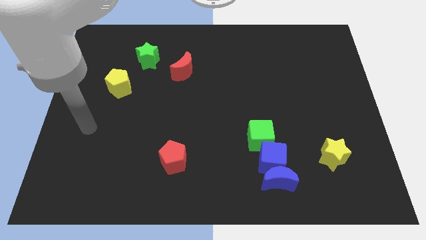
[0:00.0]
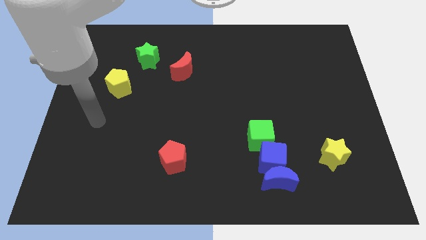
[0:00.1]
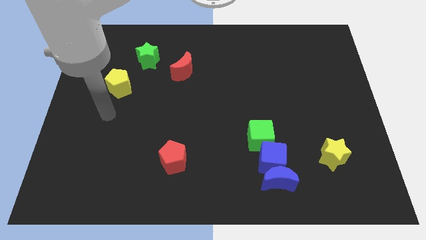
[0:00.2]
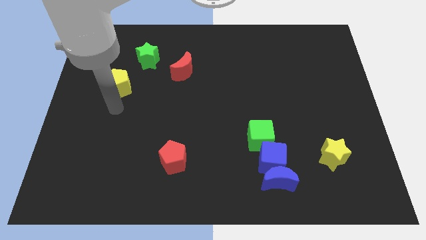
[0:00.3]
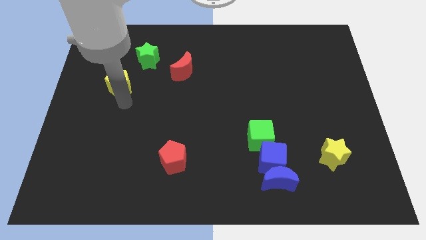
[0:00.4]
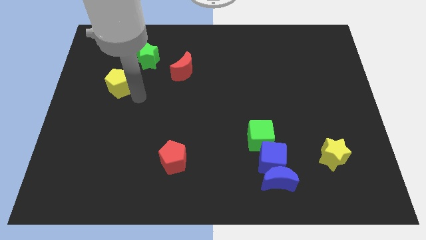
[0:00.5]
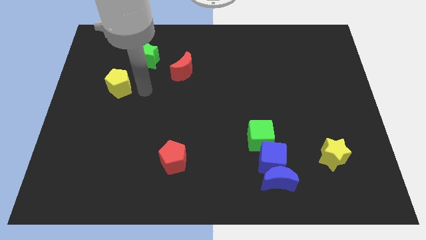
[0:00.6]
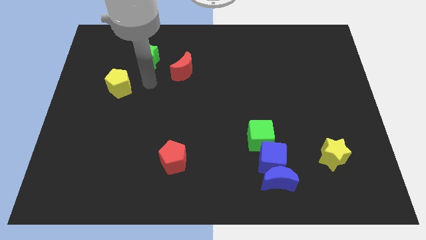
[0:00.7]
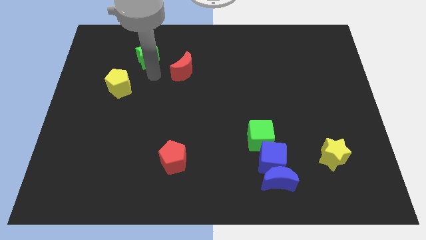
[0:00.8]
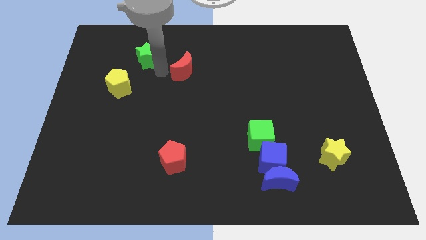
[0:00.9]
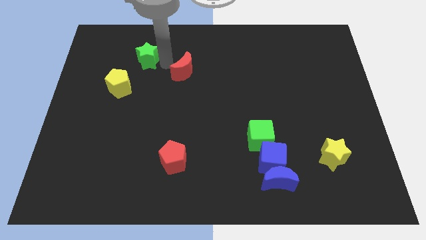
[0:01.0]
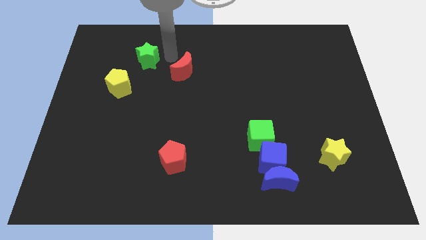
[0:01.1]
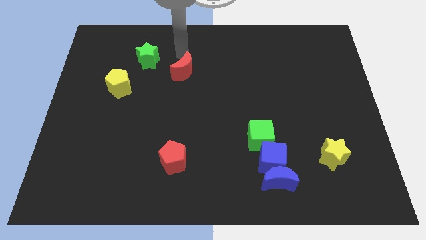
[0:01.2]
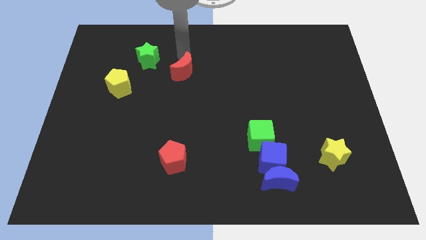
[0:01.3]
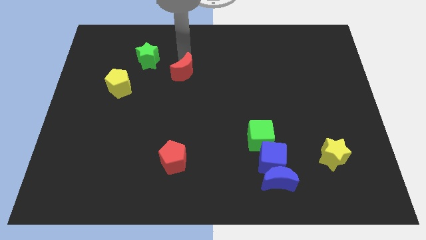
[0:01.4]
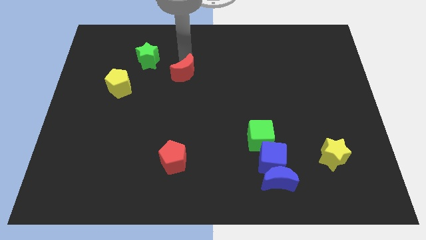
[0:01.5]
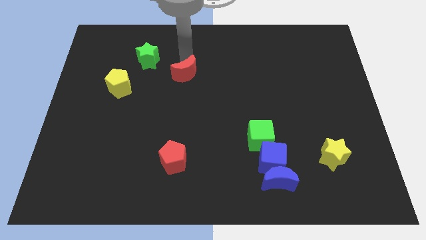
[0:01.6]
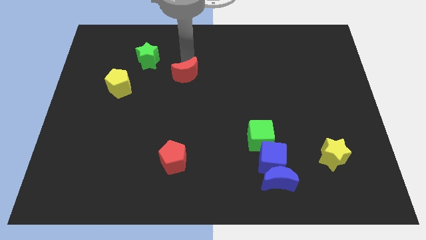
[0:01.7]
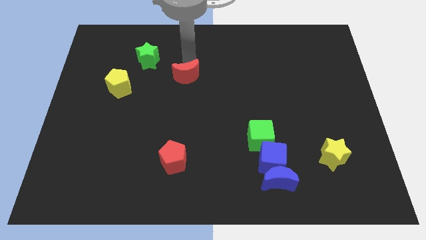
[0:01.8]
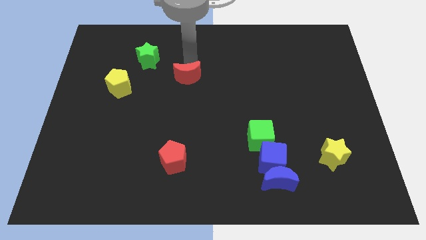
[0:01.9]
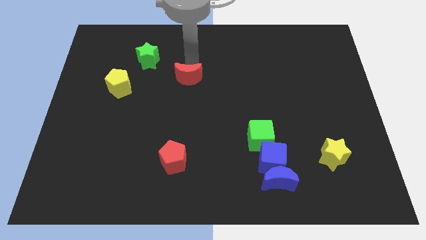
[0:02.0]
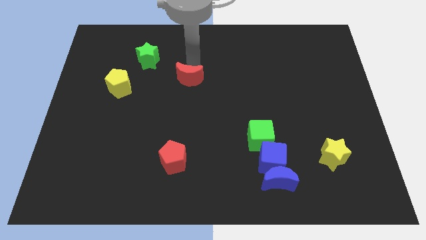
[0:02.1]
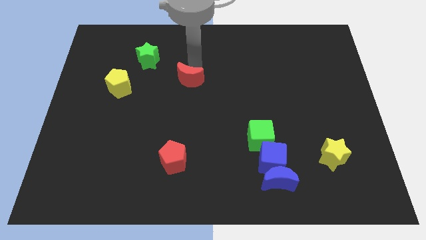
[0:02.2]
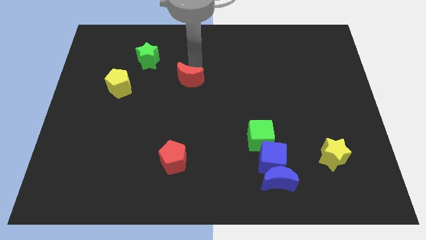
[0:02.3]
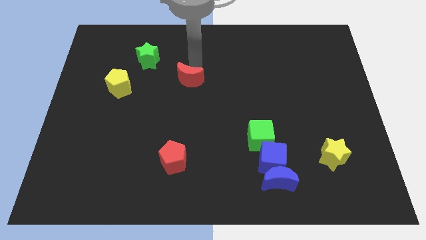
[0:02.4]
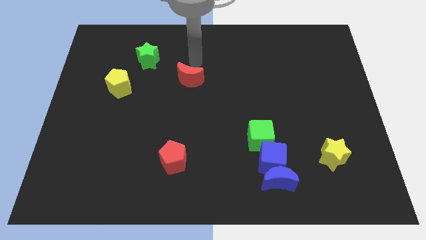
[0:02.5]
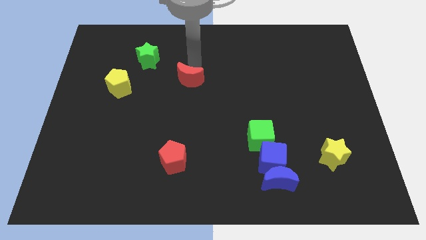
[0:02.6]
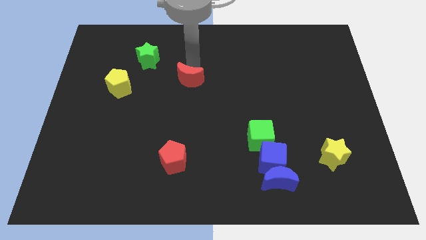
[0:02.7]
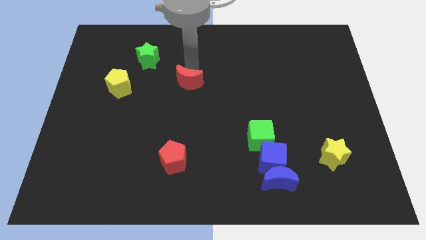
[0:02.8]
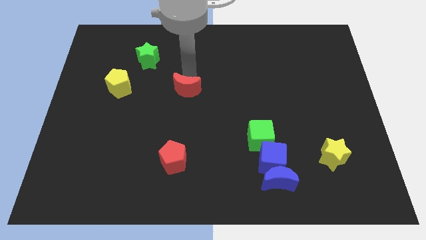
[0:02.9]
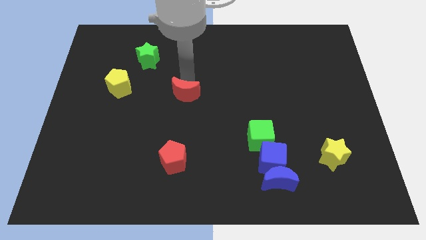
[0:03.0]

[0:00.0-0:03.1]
push the red moon slightly down

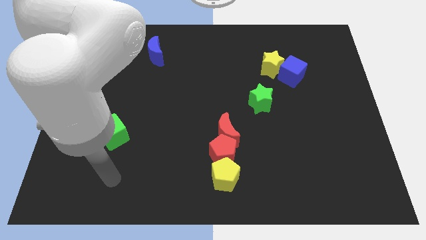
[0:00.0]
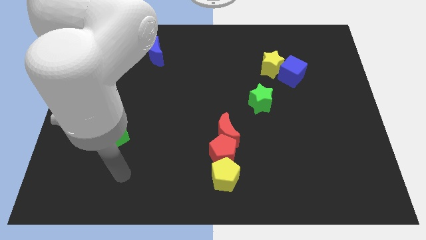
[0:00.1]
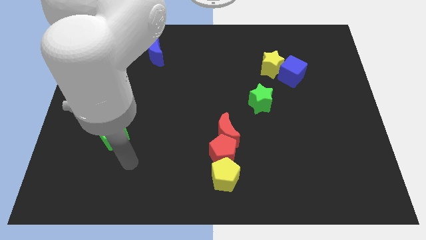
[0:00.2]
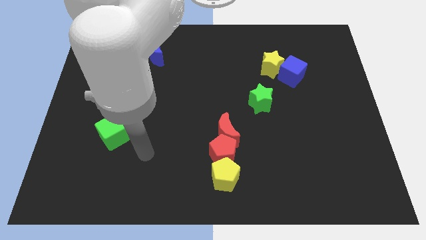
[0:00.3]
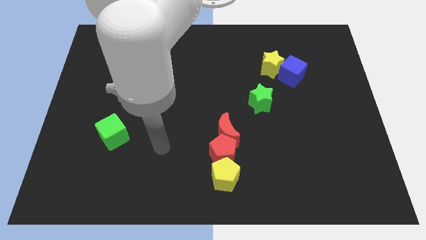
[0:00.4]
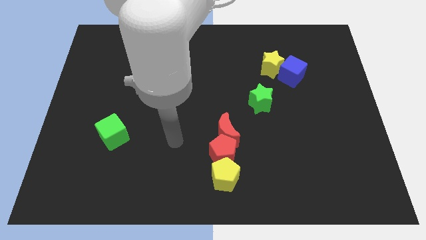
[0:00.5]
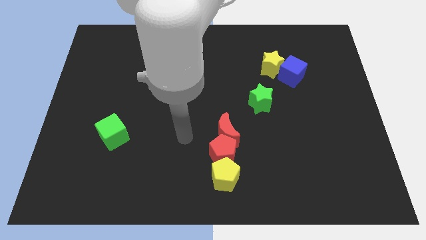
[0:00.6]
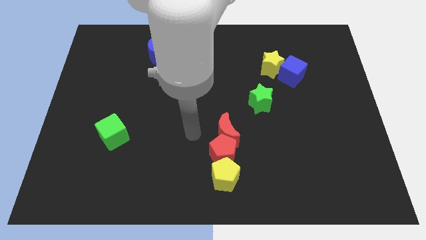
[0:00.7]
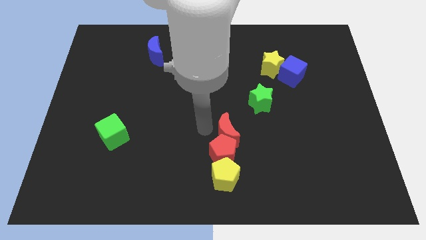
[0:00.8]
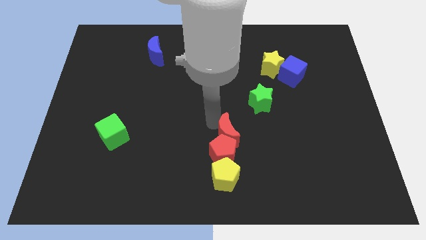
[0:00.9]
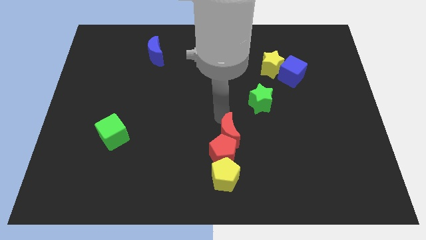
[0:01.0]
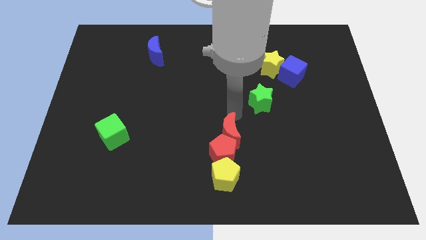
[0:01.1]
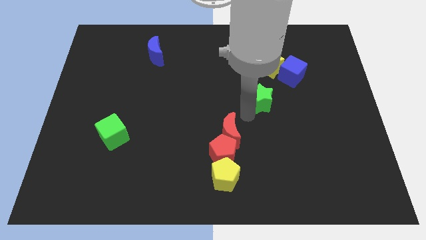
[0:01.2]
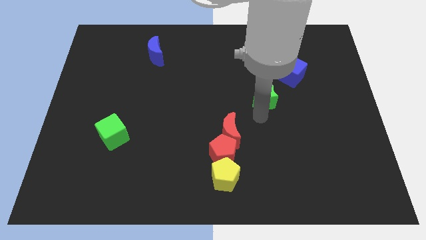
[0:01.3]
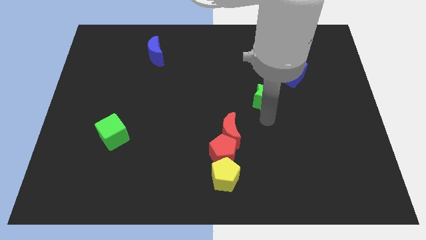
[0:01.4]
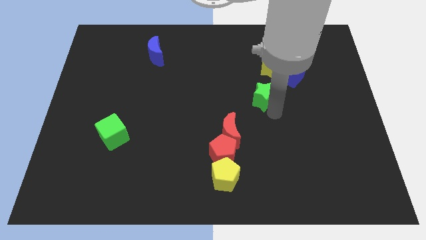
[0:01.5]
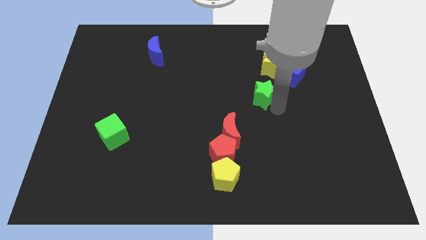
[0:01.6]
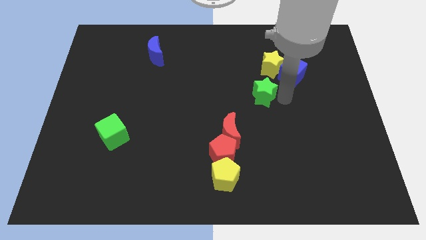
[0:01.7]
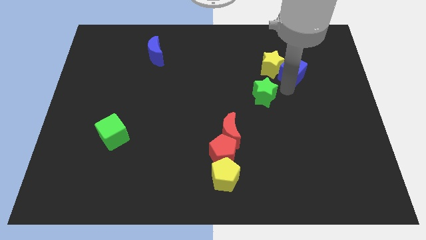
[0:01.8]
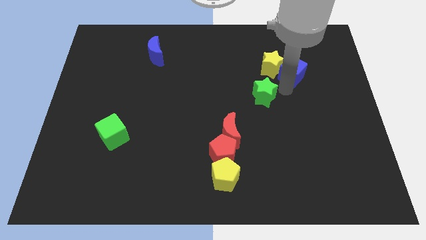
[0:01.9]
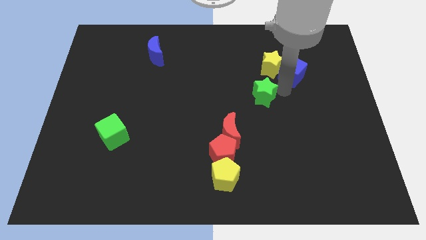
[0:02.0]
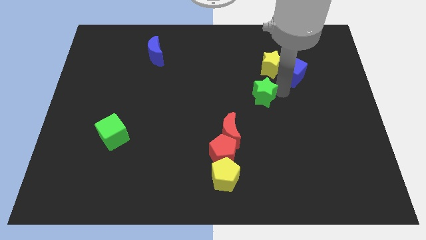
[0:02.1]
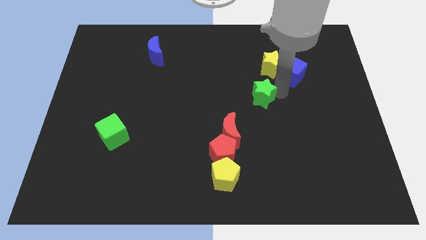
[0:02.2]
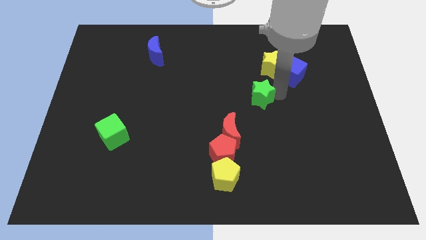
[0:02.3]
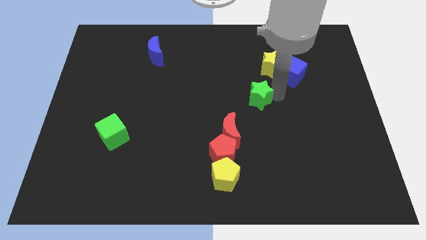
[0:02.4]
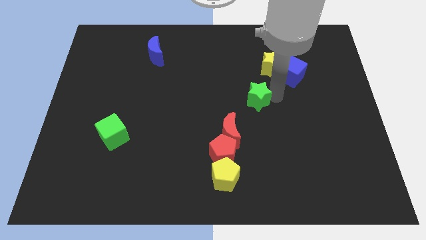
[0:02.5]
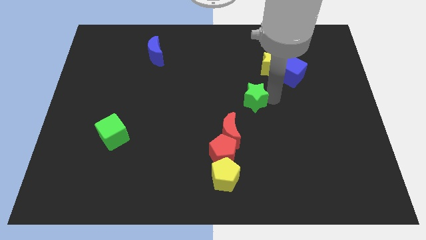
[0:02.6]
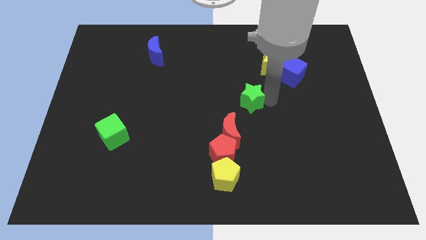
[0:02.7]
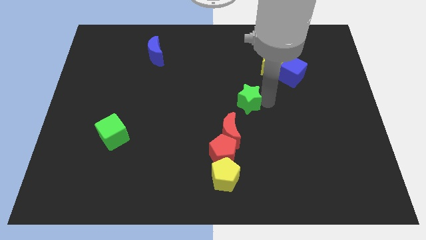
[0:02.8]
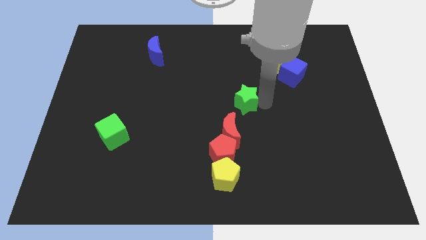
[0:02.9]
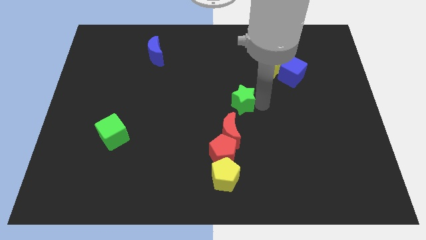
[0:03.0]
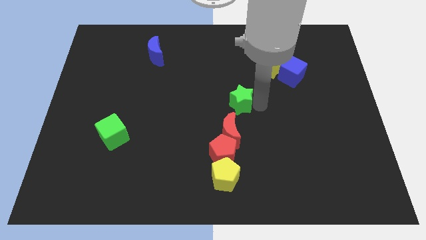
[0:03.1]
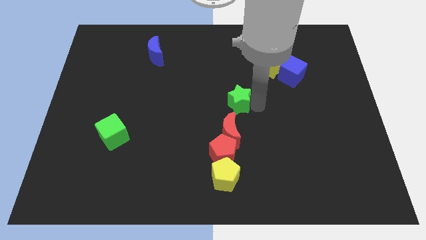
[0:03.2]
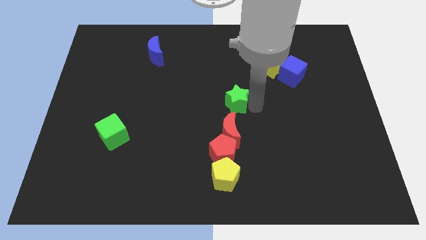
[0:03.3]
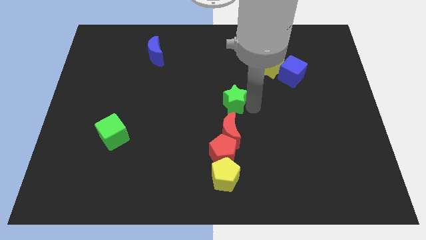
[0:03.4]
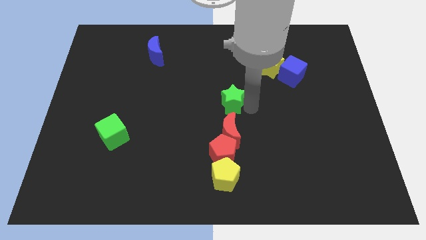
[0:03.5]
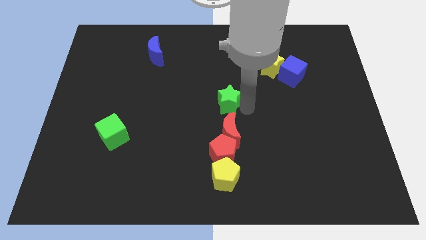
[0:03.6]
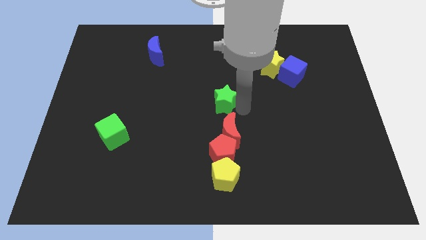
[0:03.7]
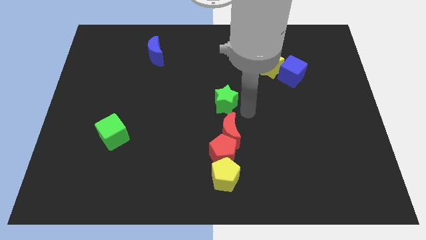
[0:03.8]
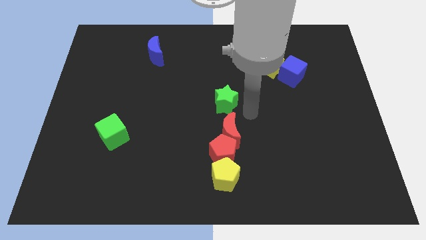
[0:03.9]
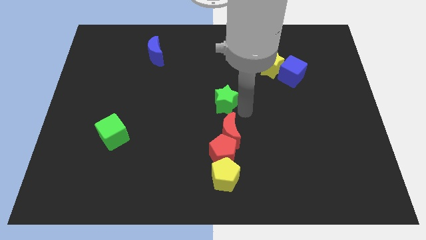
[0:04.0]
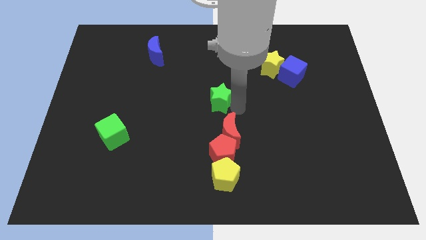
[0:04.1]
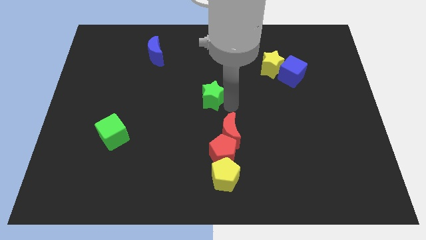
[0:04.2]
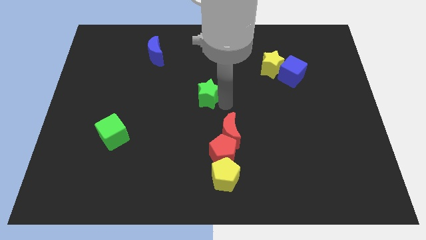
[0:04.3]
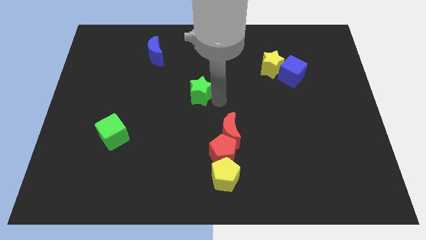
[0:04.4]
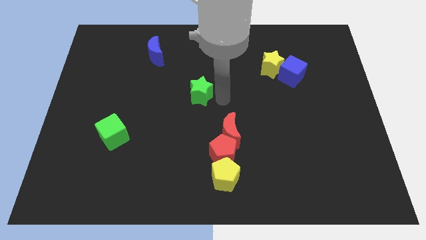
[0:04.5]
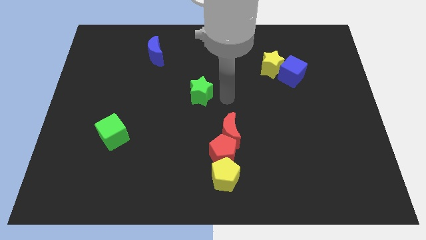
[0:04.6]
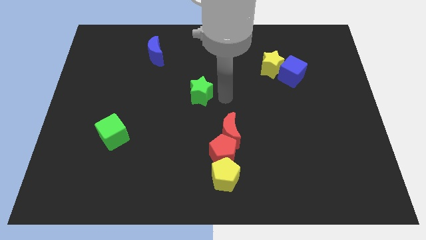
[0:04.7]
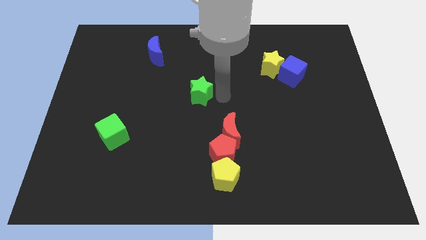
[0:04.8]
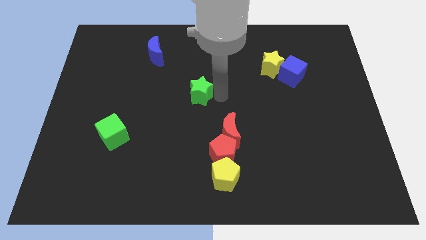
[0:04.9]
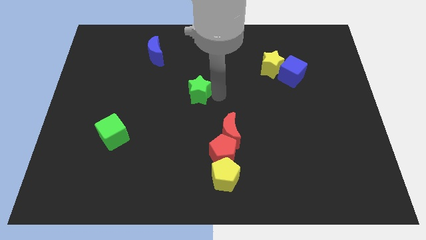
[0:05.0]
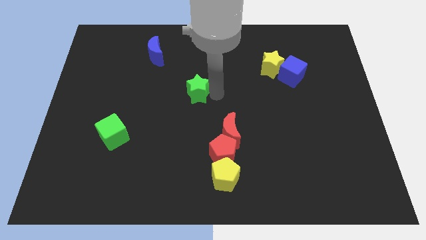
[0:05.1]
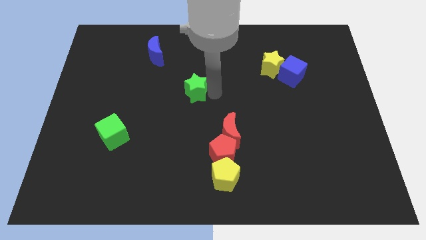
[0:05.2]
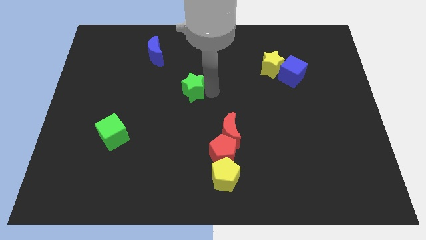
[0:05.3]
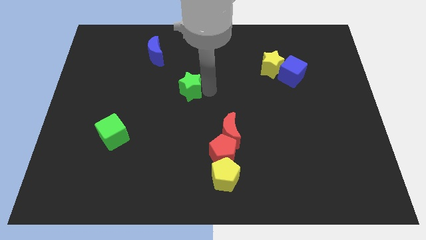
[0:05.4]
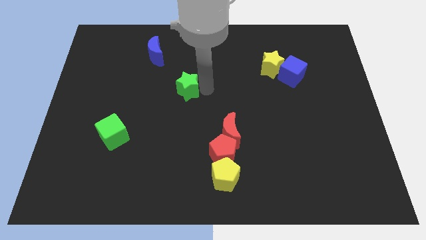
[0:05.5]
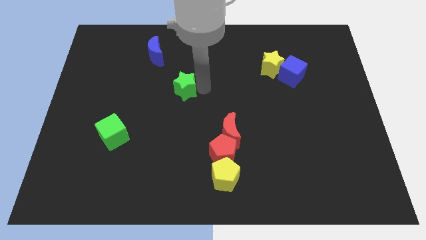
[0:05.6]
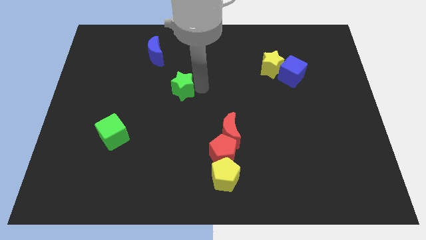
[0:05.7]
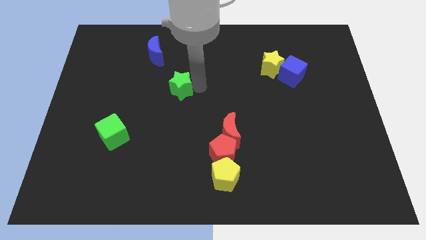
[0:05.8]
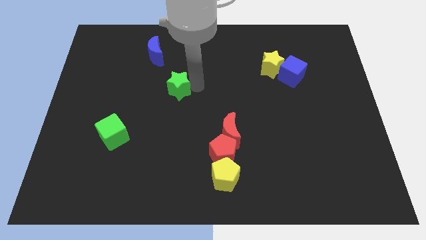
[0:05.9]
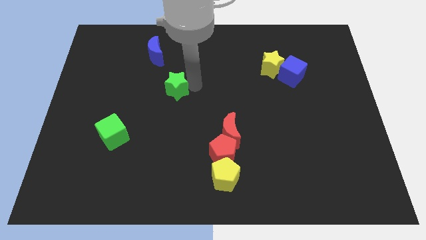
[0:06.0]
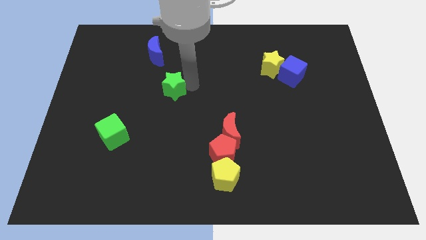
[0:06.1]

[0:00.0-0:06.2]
push the green star left
